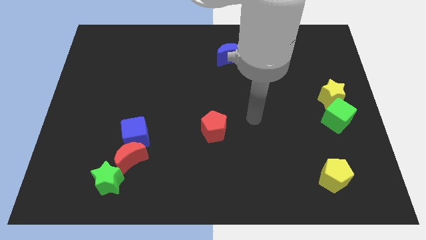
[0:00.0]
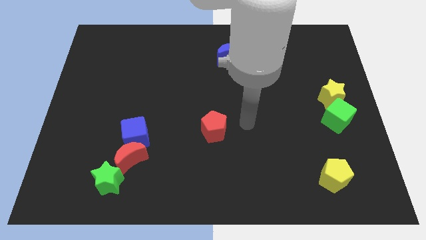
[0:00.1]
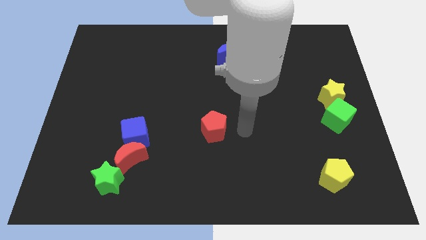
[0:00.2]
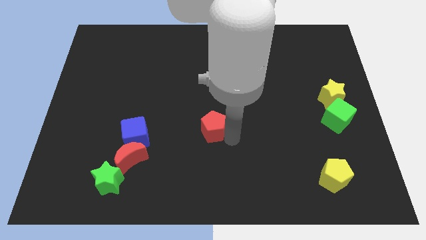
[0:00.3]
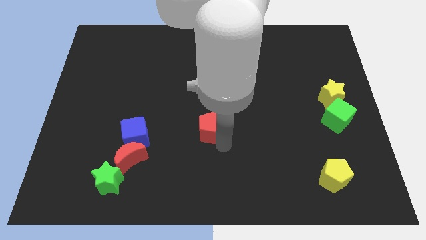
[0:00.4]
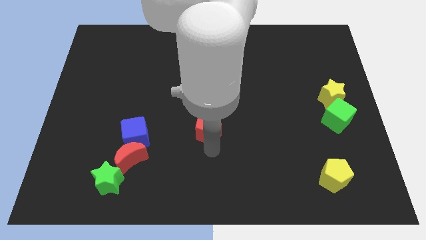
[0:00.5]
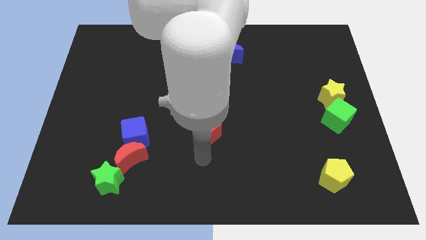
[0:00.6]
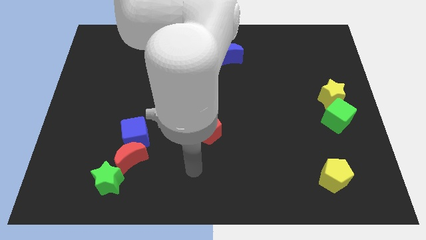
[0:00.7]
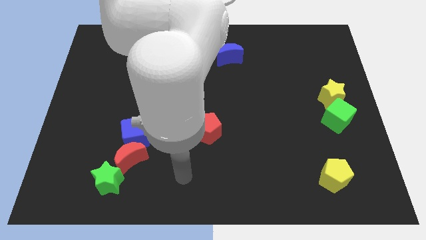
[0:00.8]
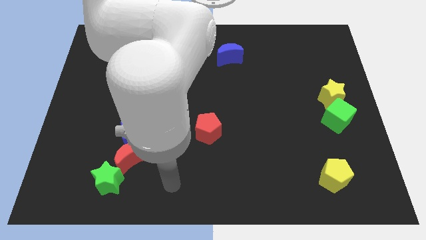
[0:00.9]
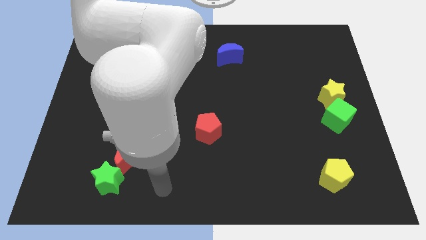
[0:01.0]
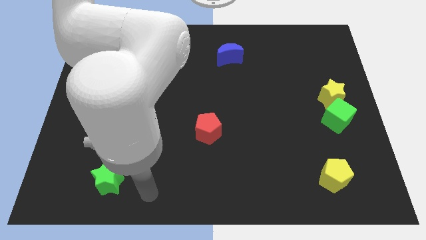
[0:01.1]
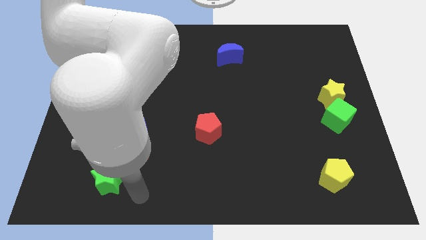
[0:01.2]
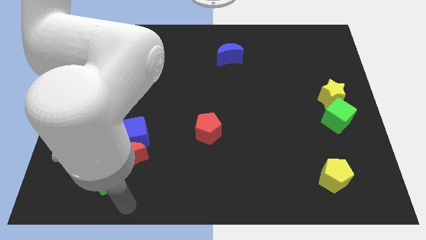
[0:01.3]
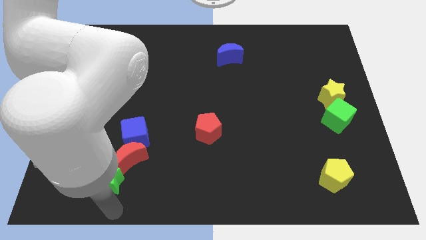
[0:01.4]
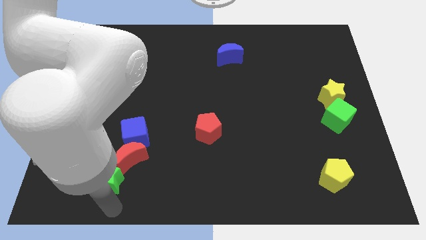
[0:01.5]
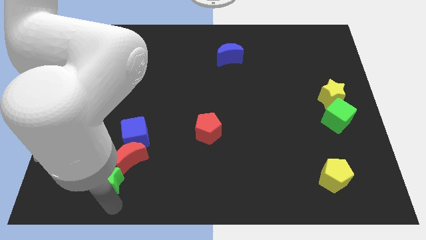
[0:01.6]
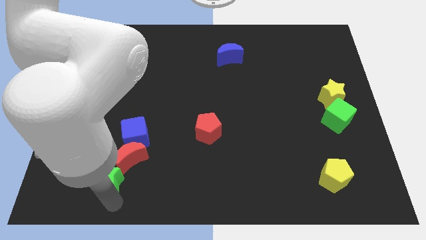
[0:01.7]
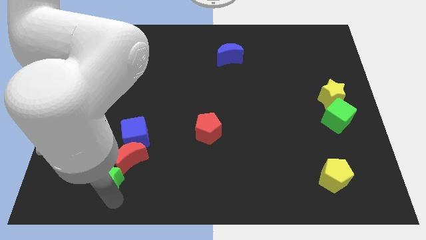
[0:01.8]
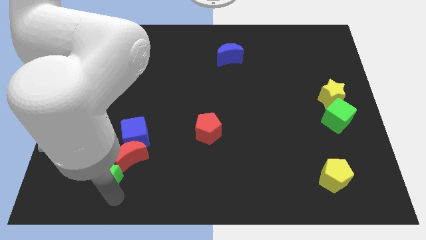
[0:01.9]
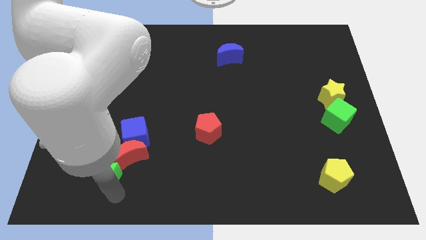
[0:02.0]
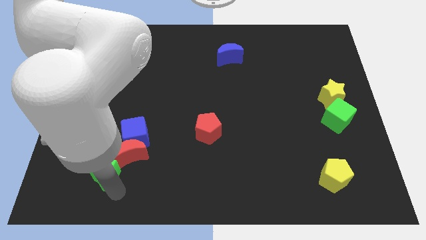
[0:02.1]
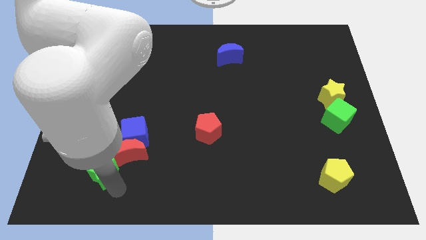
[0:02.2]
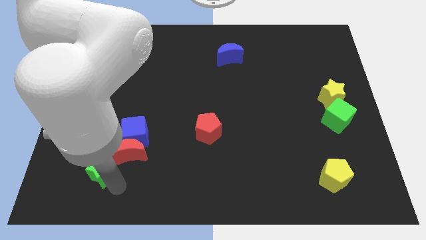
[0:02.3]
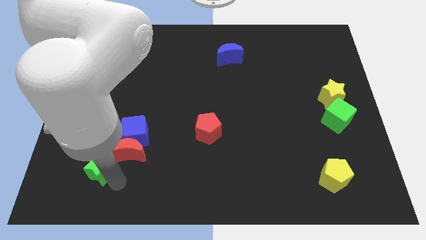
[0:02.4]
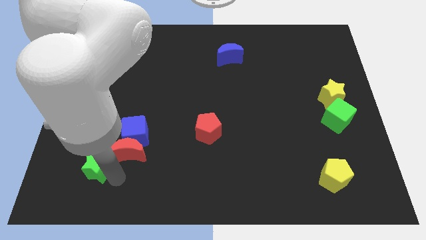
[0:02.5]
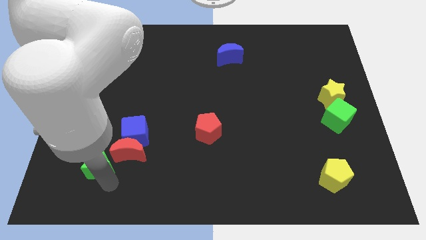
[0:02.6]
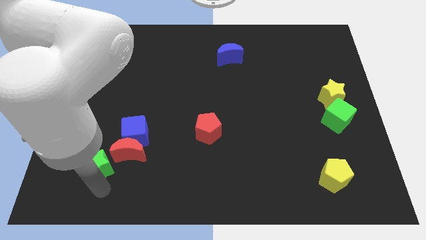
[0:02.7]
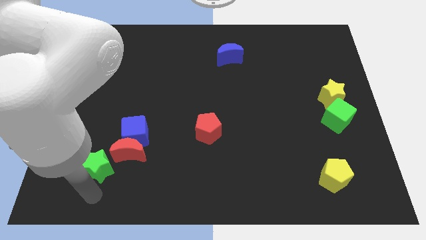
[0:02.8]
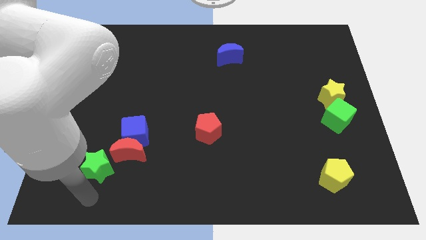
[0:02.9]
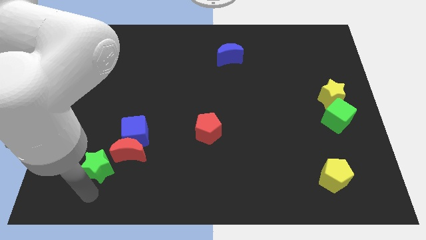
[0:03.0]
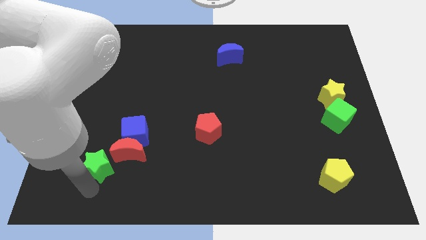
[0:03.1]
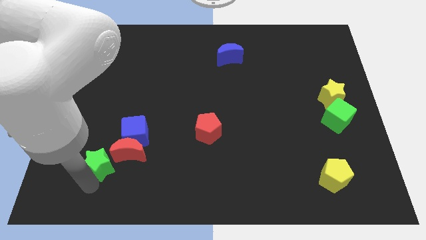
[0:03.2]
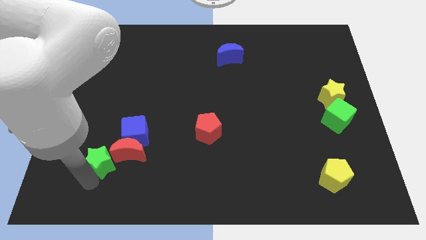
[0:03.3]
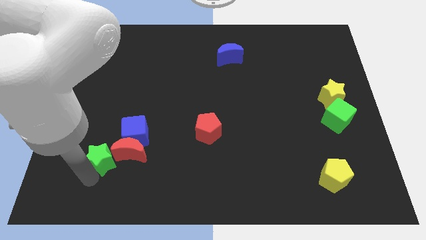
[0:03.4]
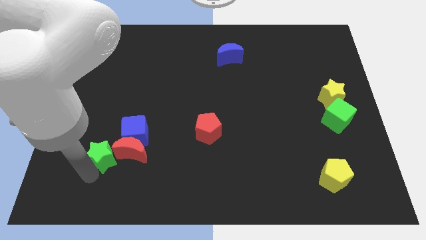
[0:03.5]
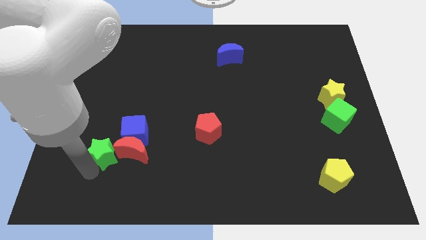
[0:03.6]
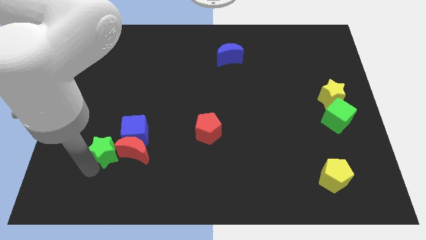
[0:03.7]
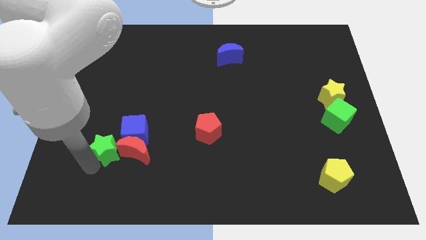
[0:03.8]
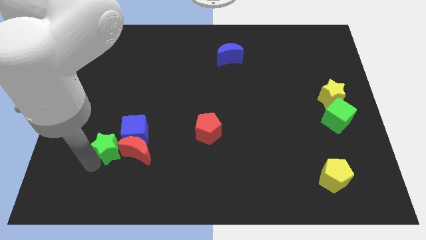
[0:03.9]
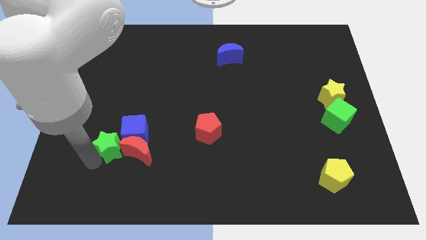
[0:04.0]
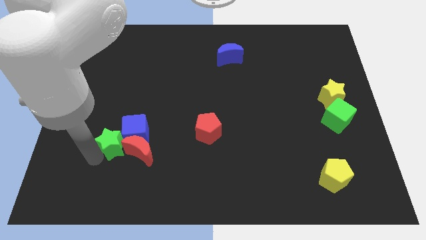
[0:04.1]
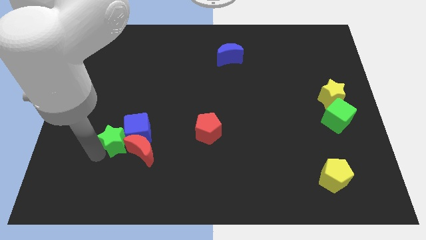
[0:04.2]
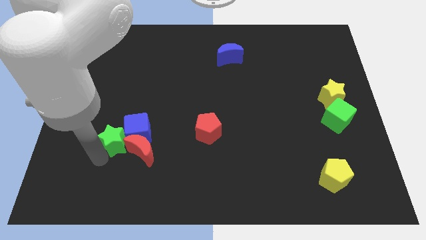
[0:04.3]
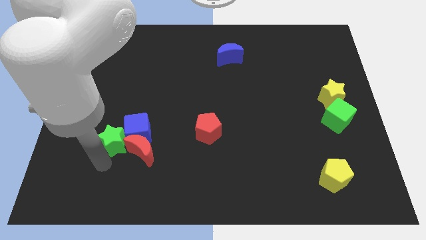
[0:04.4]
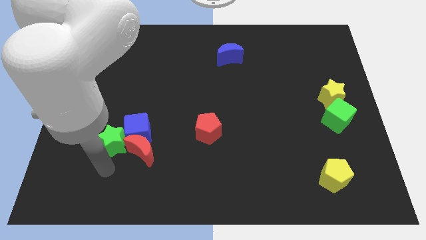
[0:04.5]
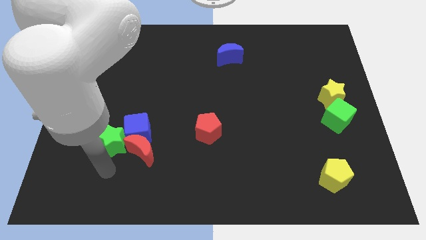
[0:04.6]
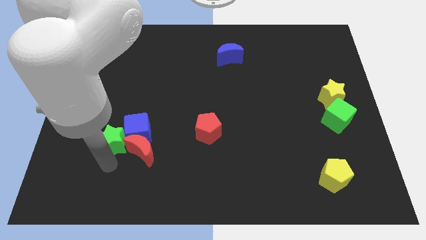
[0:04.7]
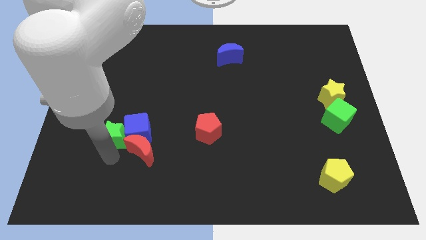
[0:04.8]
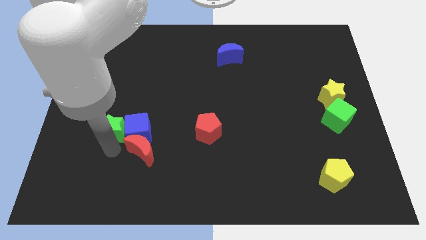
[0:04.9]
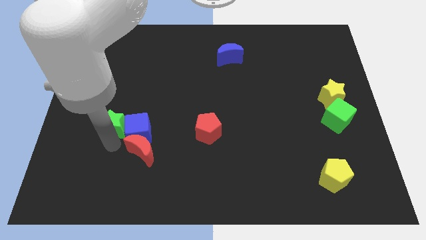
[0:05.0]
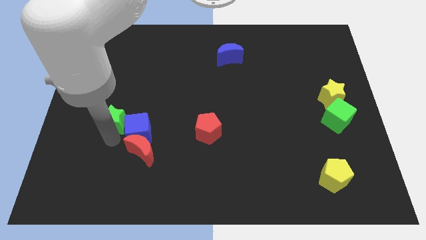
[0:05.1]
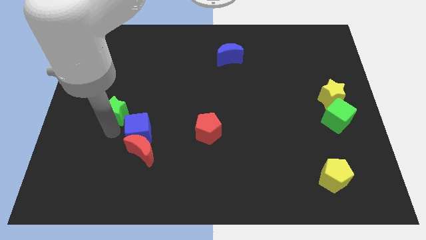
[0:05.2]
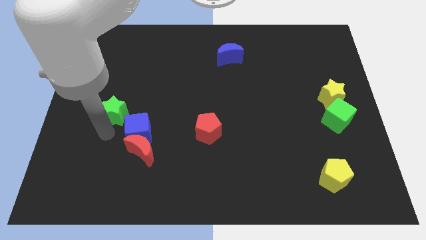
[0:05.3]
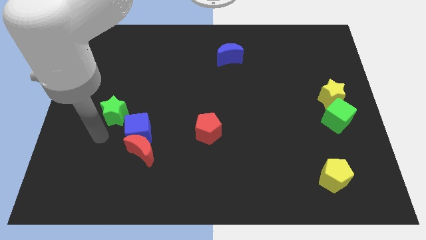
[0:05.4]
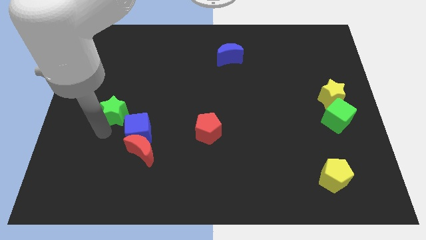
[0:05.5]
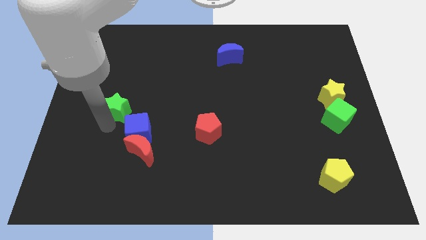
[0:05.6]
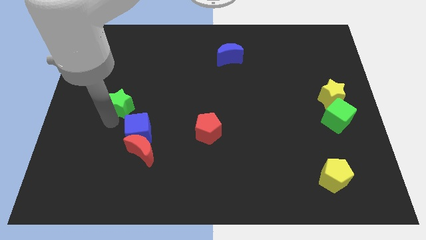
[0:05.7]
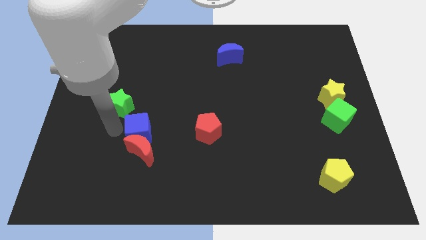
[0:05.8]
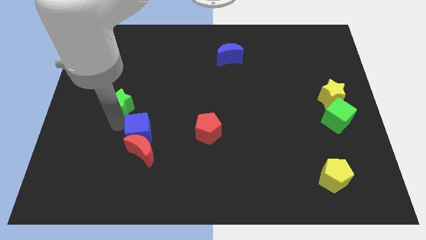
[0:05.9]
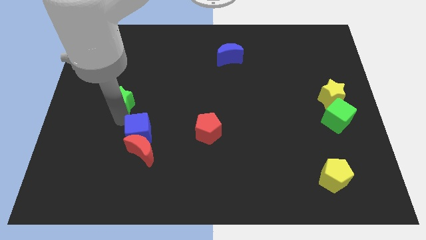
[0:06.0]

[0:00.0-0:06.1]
slide the green star upwards

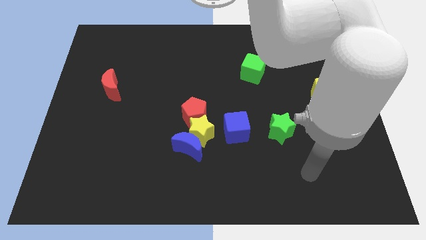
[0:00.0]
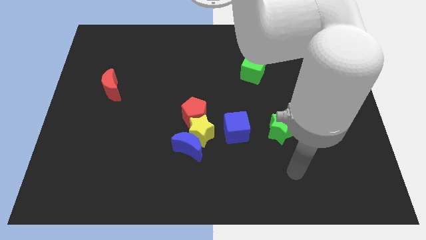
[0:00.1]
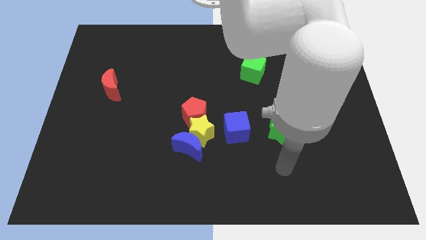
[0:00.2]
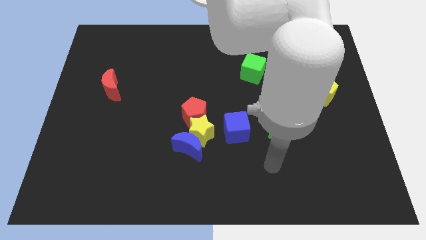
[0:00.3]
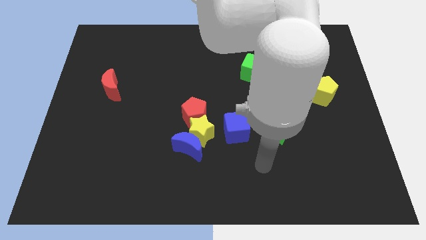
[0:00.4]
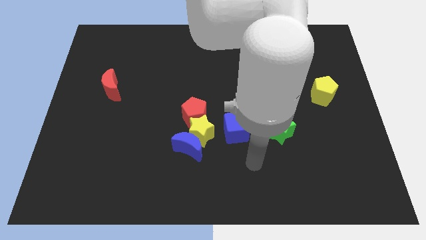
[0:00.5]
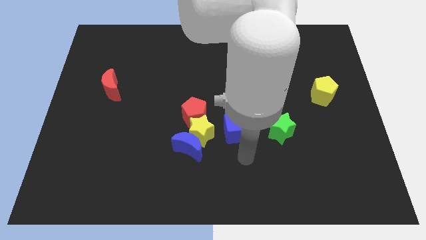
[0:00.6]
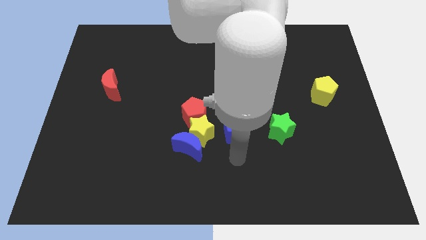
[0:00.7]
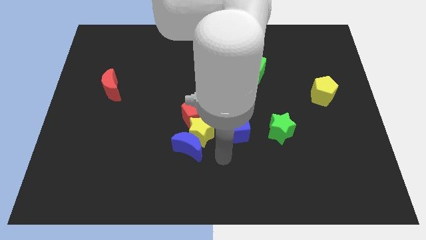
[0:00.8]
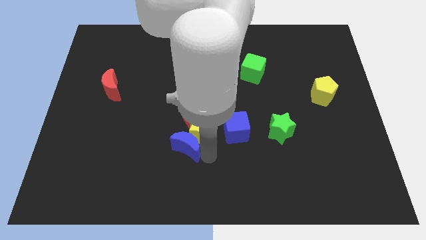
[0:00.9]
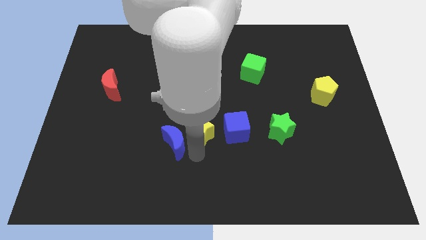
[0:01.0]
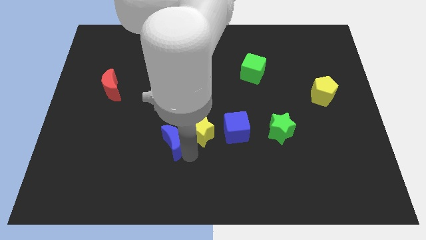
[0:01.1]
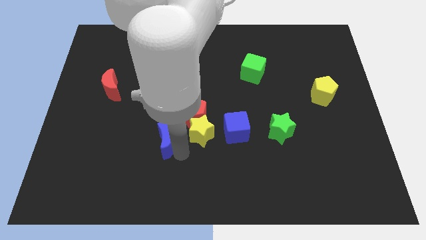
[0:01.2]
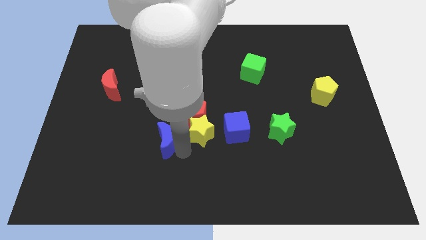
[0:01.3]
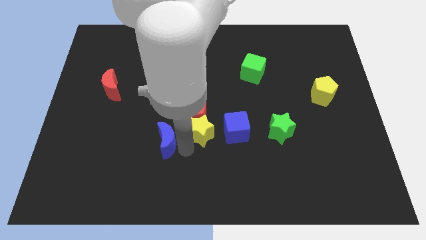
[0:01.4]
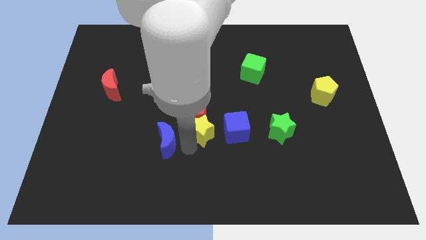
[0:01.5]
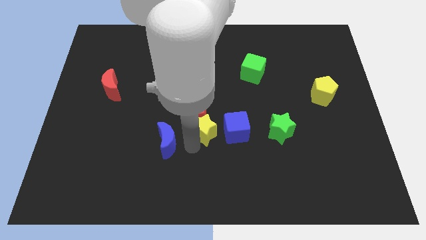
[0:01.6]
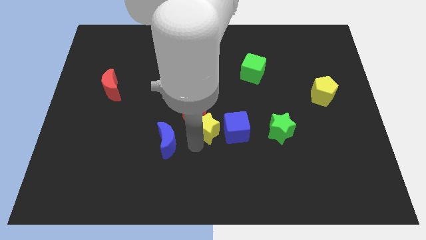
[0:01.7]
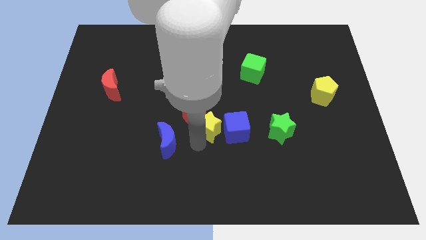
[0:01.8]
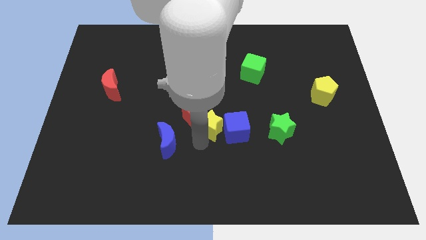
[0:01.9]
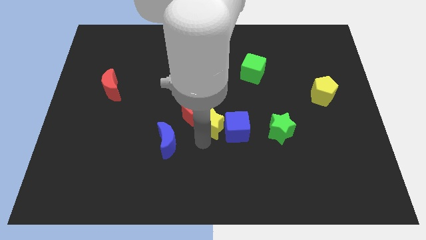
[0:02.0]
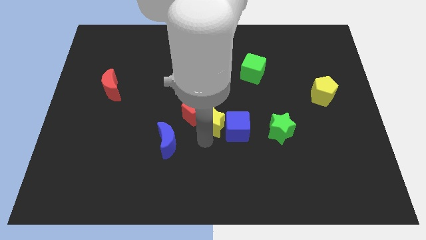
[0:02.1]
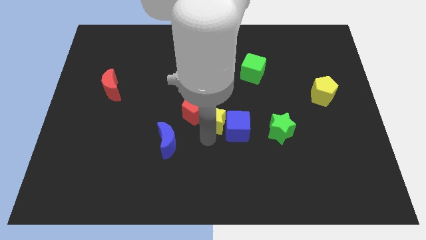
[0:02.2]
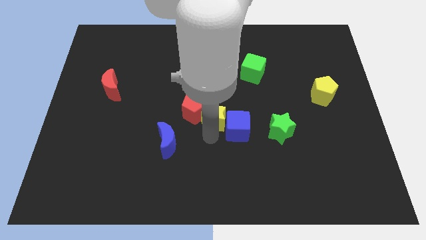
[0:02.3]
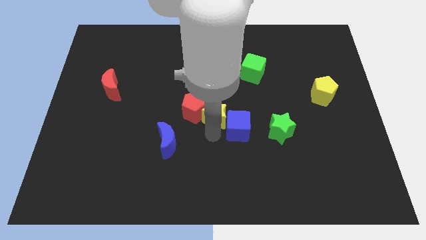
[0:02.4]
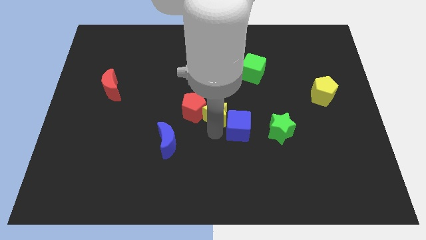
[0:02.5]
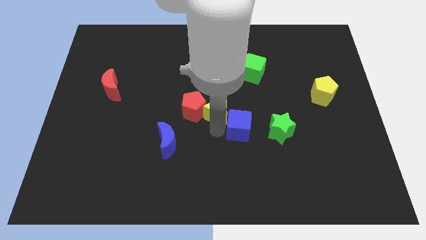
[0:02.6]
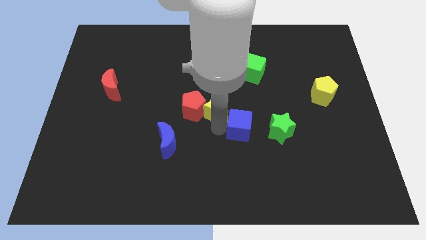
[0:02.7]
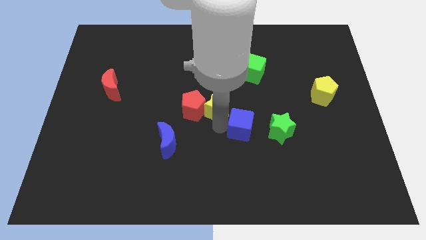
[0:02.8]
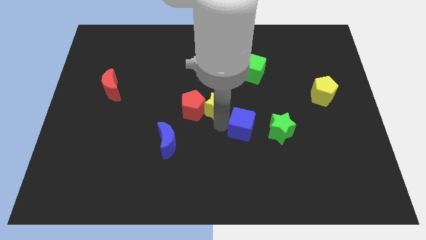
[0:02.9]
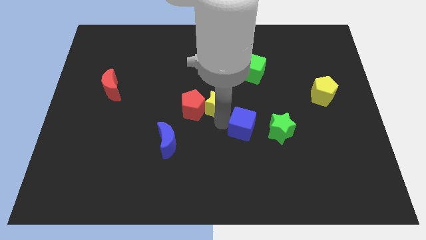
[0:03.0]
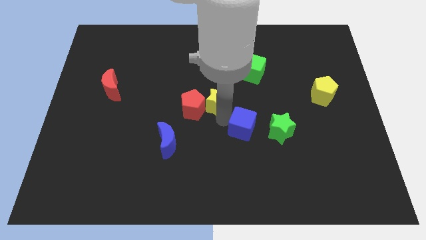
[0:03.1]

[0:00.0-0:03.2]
move the yellow star a little upwards
